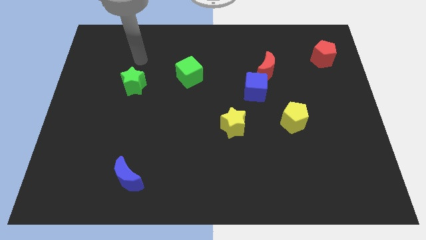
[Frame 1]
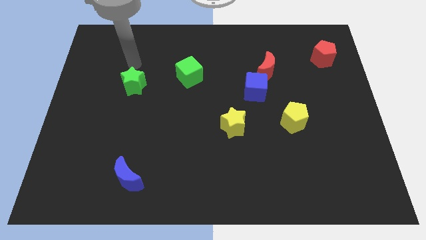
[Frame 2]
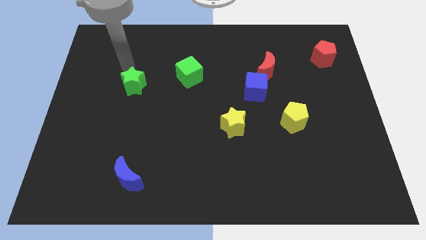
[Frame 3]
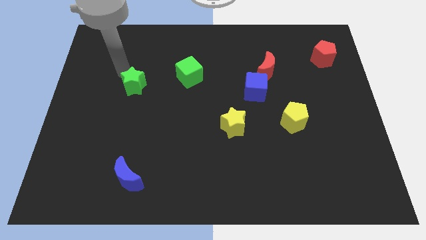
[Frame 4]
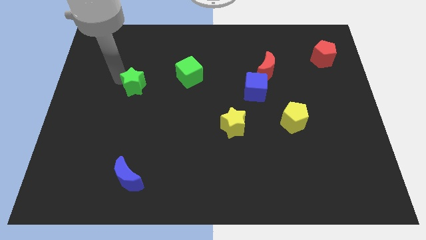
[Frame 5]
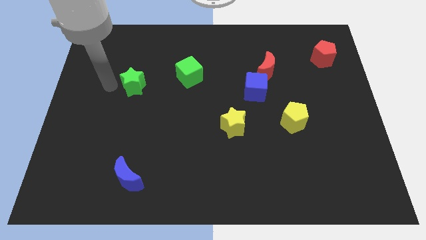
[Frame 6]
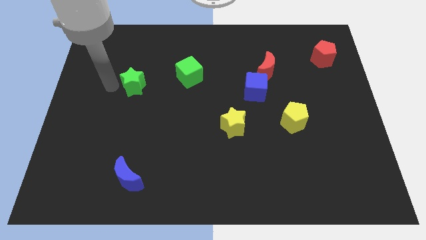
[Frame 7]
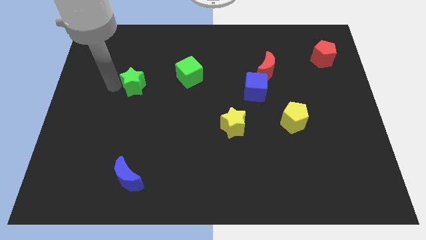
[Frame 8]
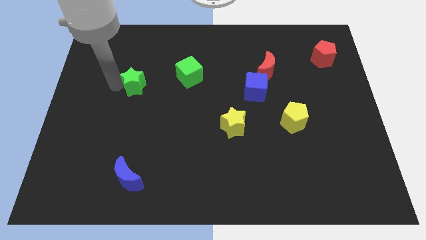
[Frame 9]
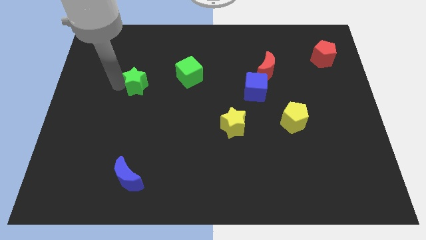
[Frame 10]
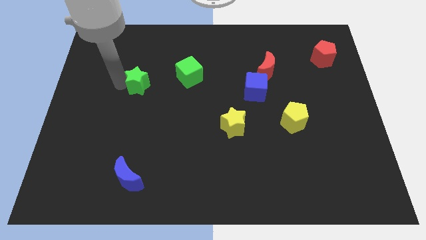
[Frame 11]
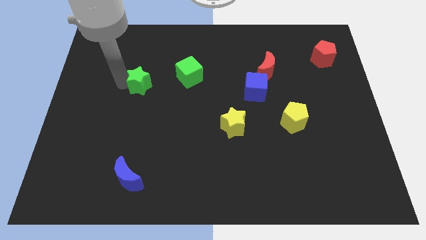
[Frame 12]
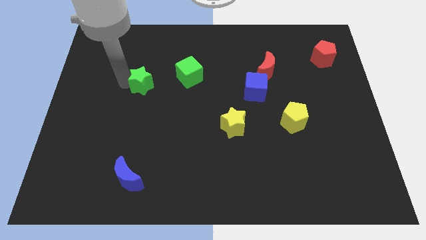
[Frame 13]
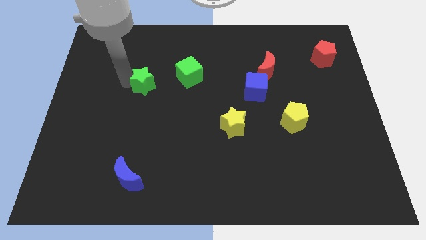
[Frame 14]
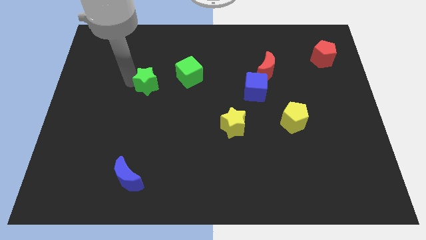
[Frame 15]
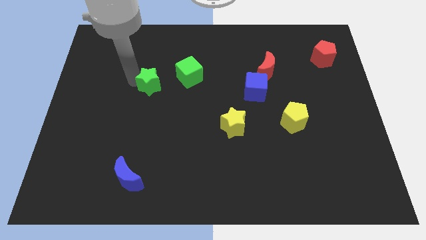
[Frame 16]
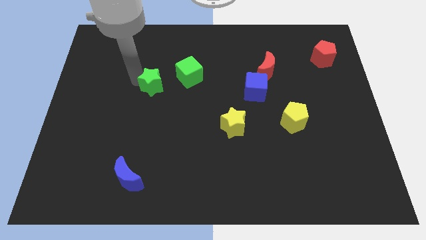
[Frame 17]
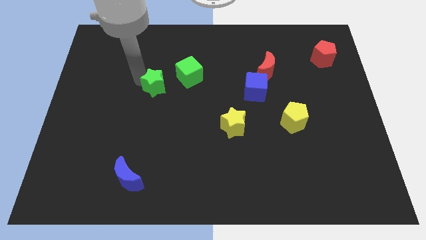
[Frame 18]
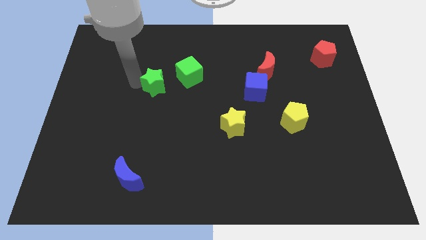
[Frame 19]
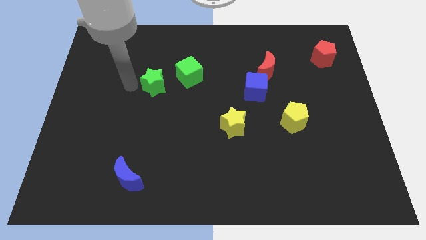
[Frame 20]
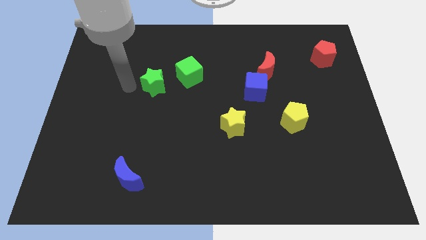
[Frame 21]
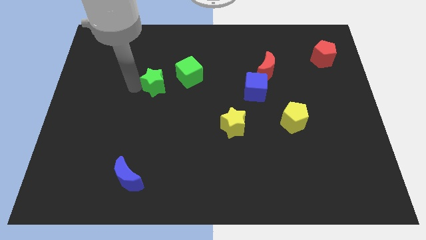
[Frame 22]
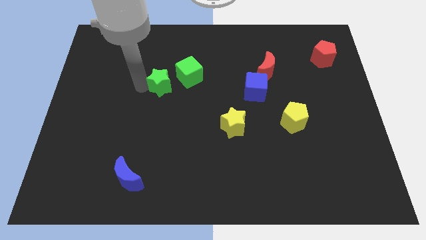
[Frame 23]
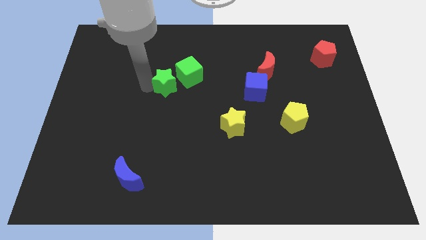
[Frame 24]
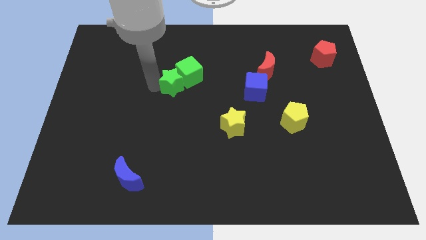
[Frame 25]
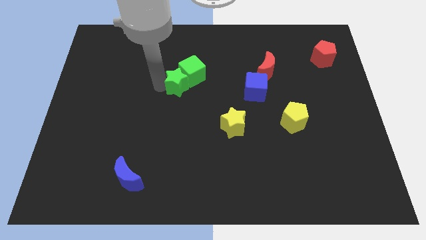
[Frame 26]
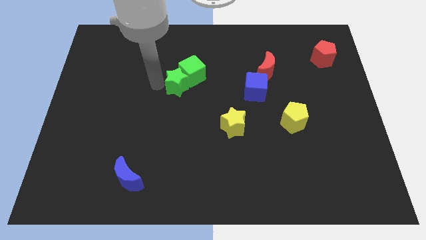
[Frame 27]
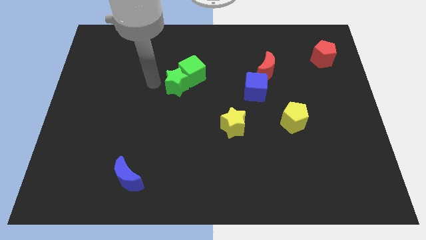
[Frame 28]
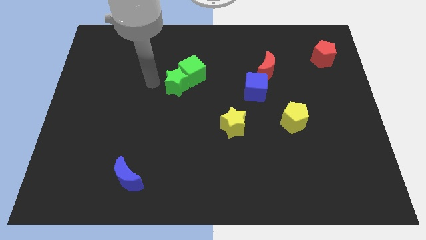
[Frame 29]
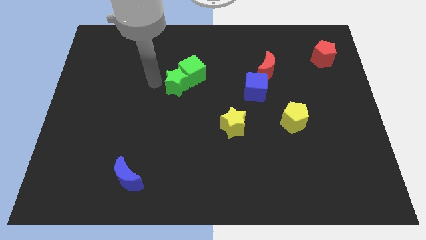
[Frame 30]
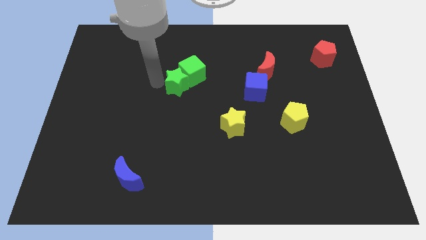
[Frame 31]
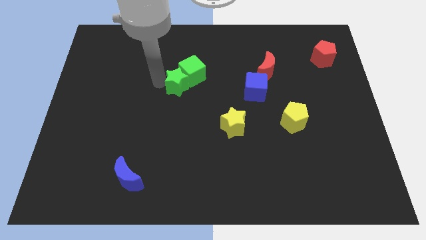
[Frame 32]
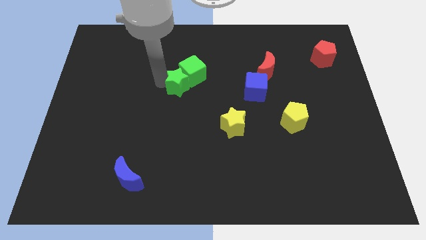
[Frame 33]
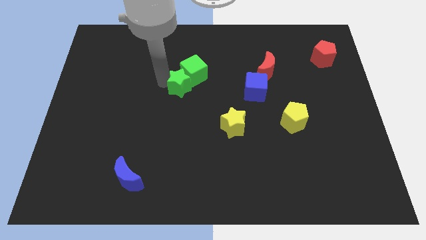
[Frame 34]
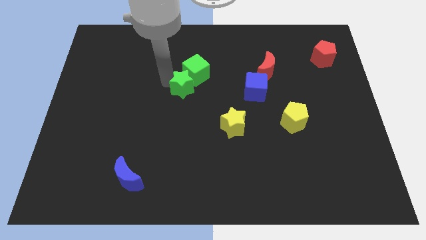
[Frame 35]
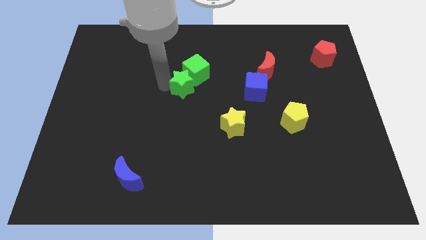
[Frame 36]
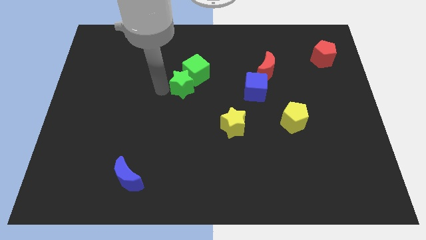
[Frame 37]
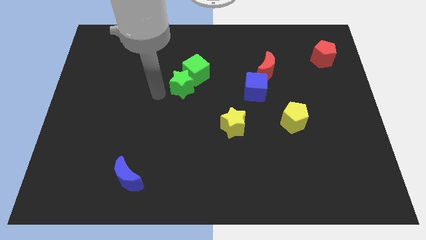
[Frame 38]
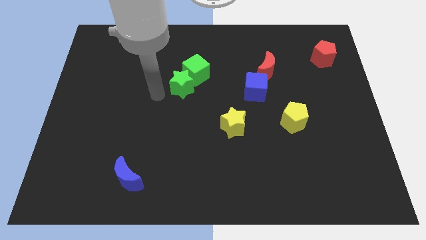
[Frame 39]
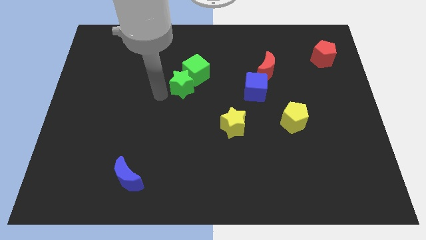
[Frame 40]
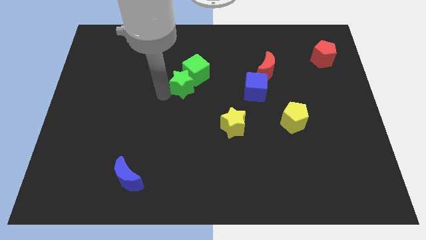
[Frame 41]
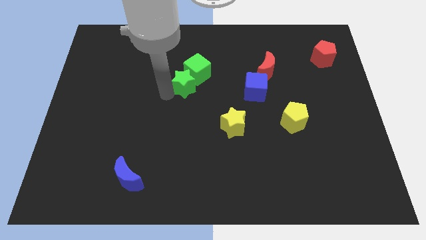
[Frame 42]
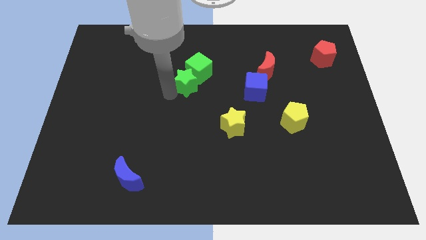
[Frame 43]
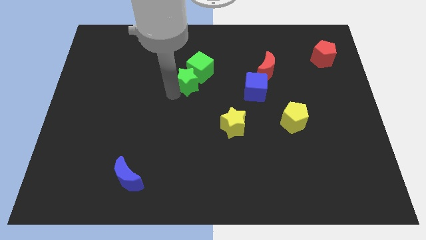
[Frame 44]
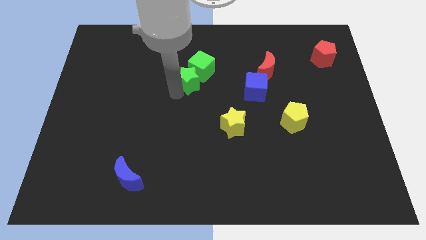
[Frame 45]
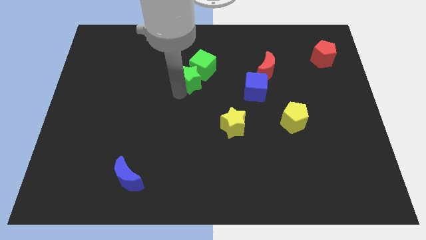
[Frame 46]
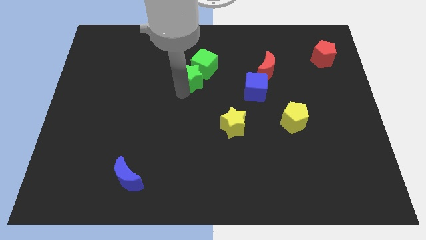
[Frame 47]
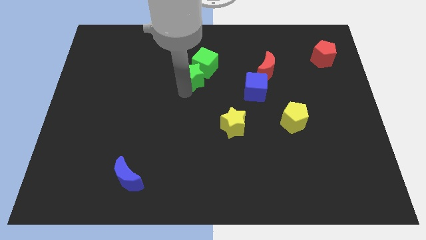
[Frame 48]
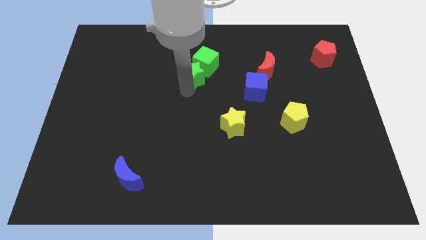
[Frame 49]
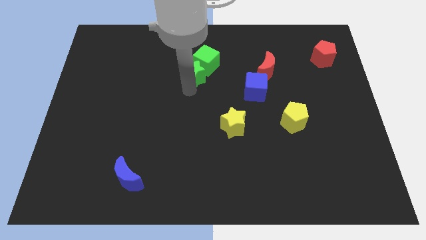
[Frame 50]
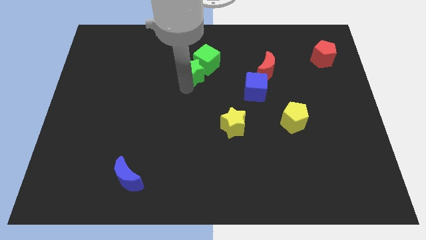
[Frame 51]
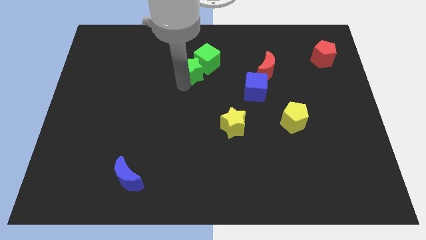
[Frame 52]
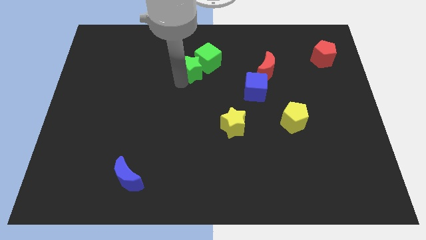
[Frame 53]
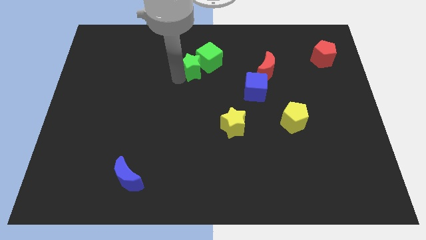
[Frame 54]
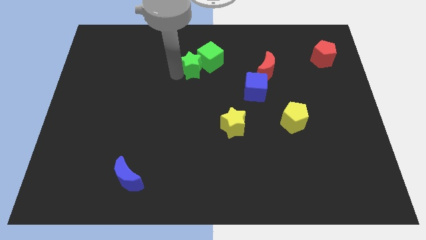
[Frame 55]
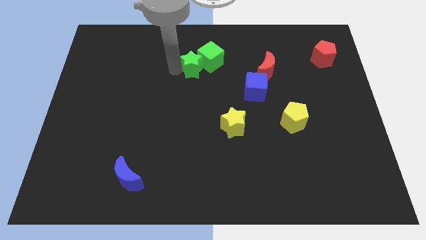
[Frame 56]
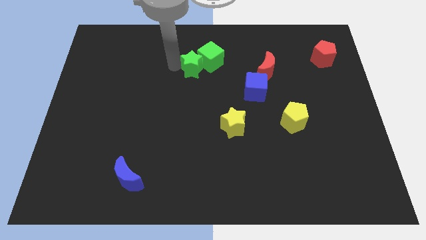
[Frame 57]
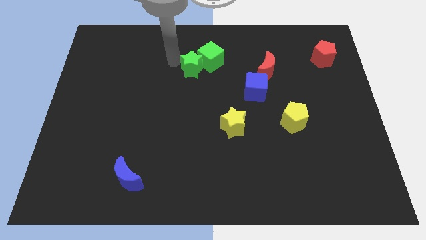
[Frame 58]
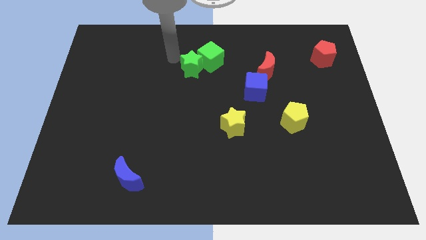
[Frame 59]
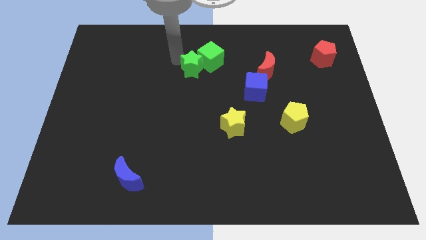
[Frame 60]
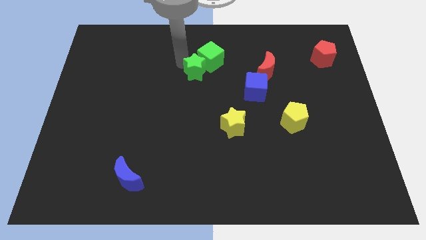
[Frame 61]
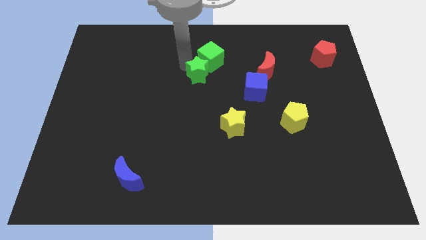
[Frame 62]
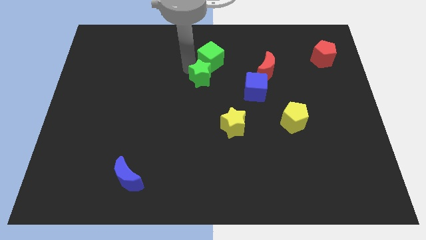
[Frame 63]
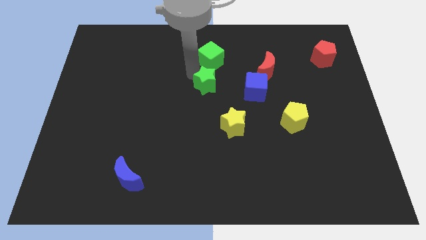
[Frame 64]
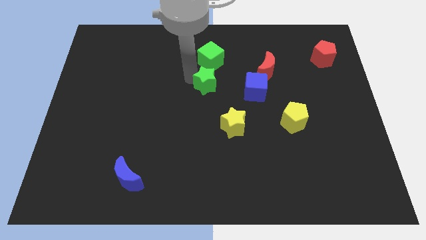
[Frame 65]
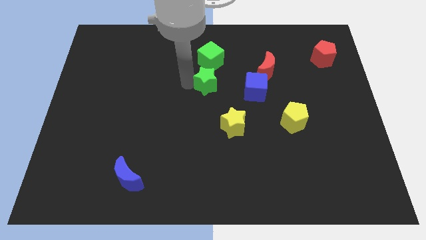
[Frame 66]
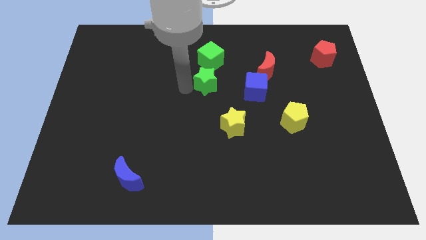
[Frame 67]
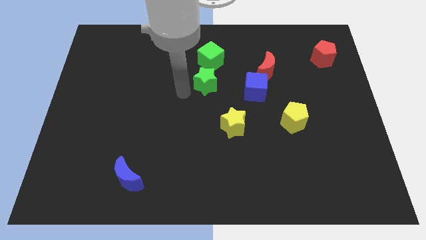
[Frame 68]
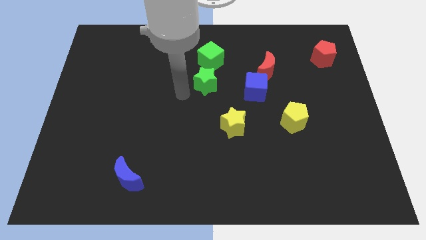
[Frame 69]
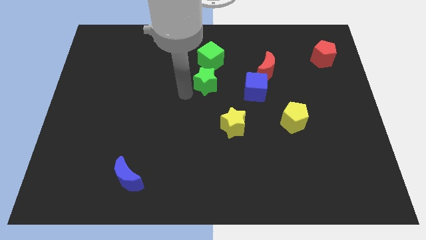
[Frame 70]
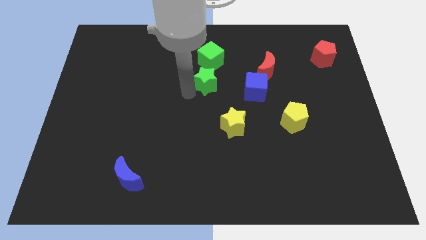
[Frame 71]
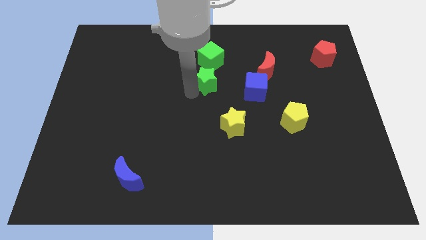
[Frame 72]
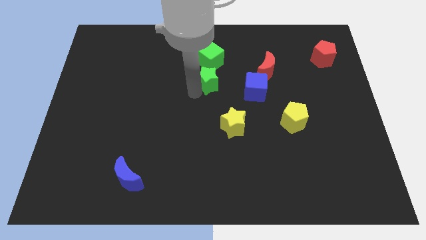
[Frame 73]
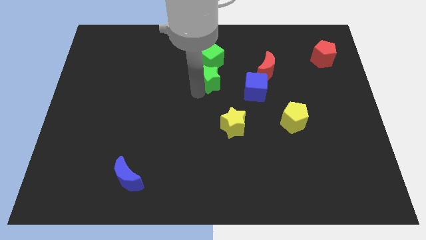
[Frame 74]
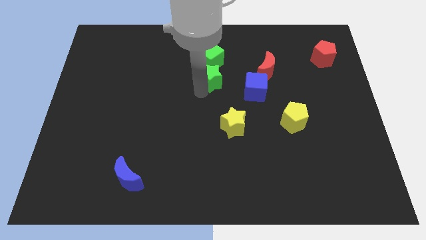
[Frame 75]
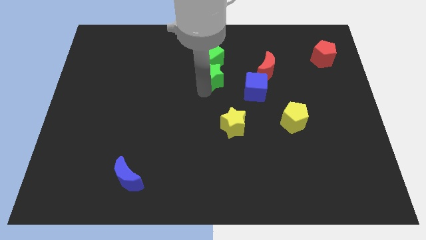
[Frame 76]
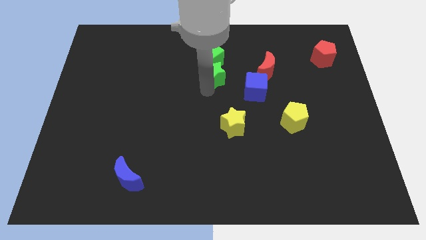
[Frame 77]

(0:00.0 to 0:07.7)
push the green star to the top left side of the blue cube

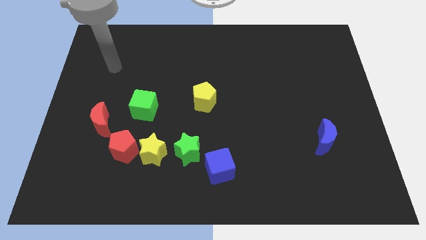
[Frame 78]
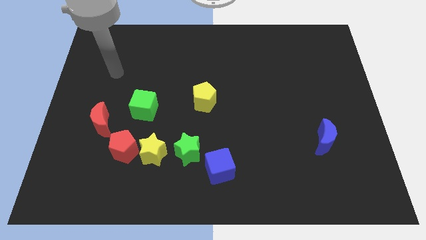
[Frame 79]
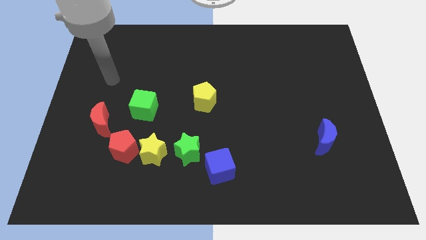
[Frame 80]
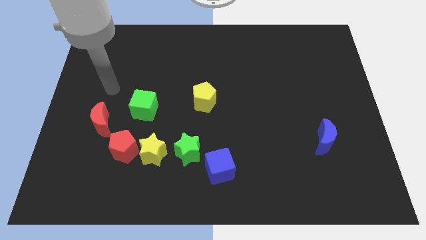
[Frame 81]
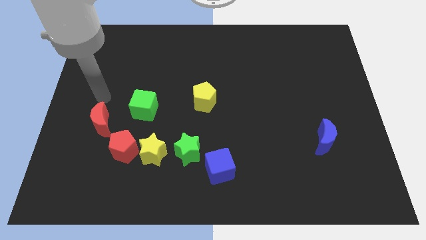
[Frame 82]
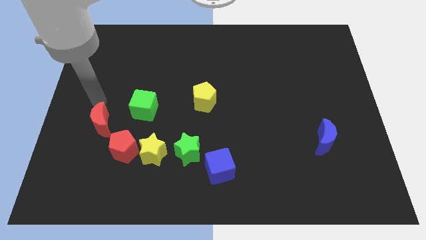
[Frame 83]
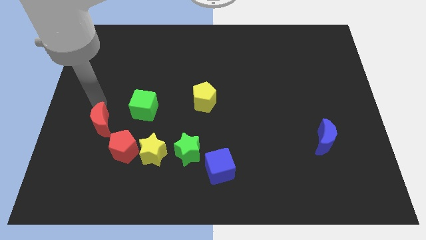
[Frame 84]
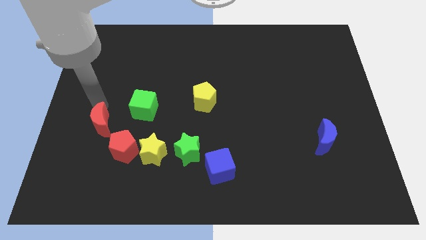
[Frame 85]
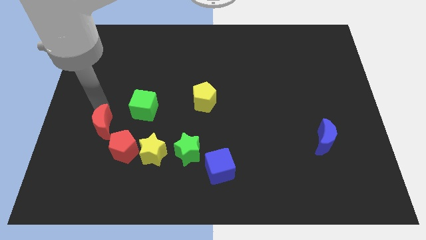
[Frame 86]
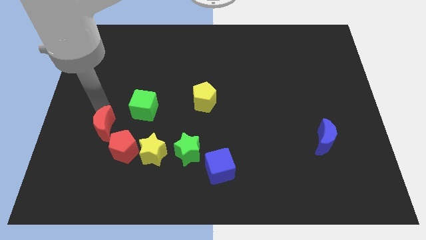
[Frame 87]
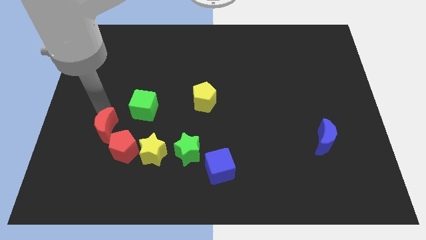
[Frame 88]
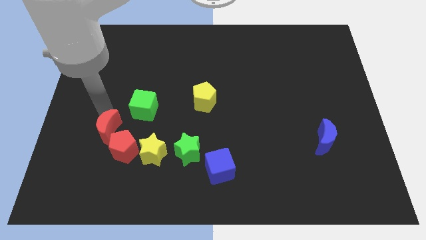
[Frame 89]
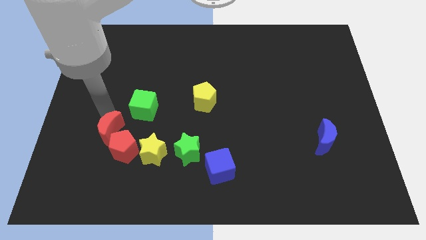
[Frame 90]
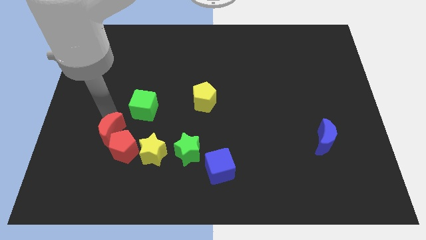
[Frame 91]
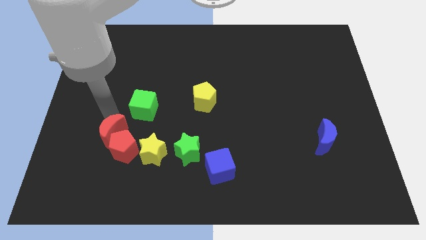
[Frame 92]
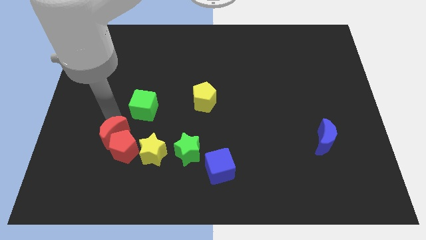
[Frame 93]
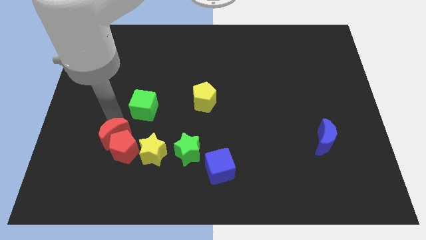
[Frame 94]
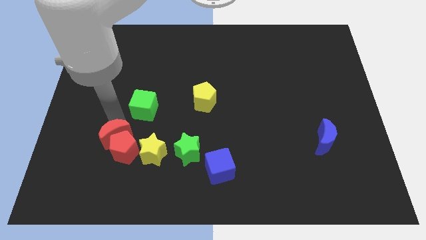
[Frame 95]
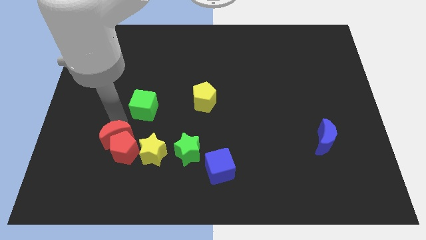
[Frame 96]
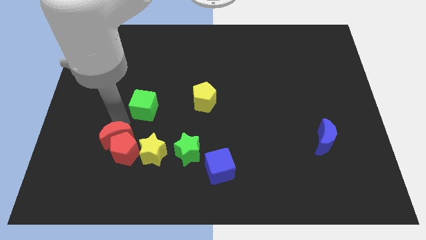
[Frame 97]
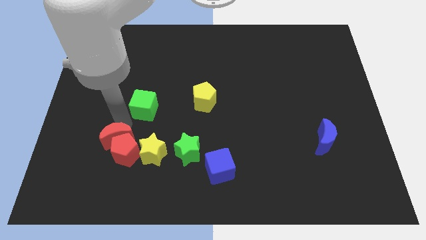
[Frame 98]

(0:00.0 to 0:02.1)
put the red moon below the green cube
